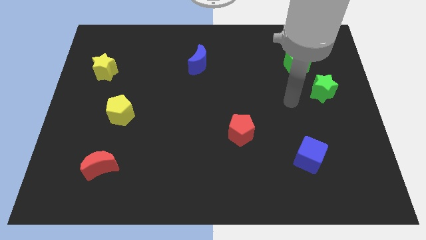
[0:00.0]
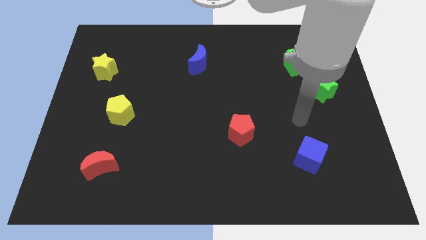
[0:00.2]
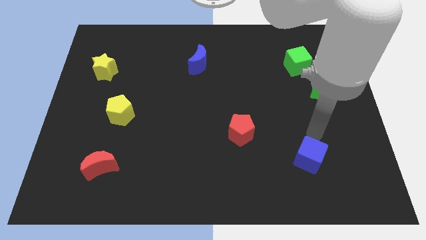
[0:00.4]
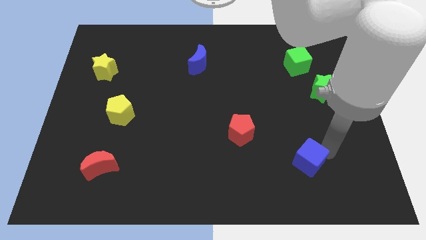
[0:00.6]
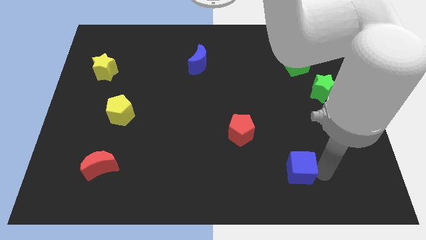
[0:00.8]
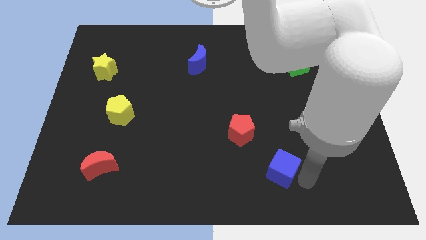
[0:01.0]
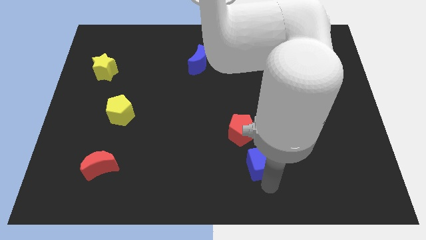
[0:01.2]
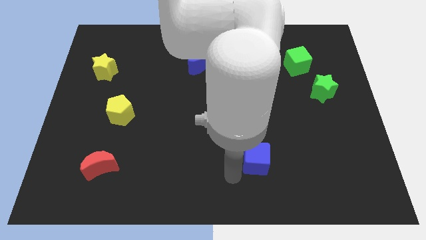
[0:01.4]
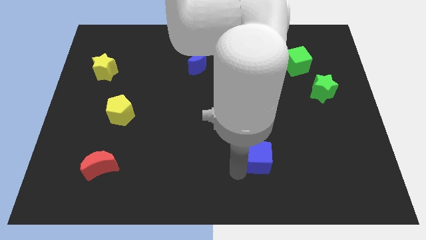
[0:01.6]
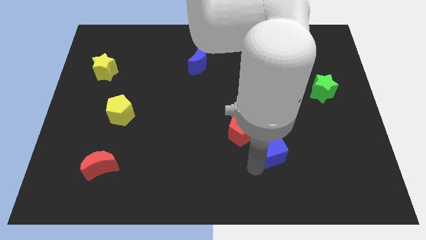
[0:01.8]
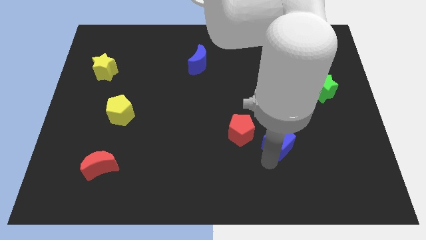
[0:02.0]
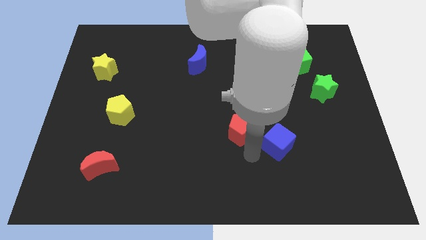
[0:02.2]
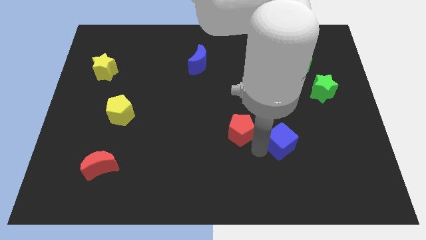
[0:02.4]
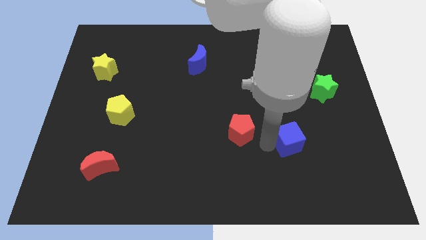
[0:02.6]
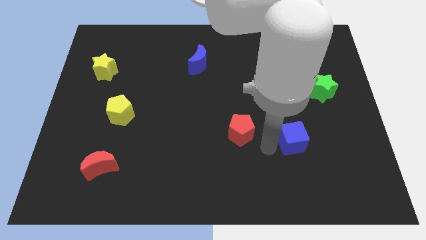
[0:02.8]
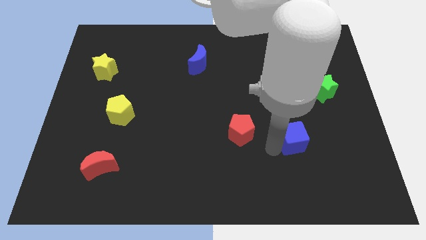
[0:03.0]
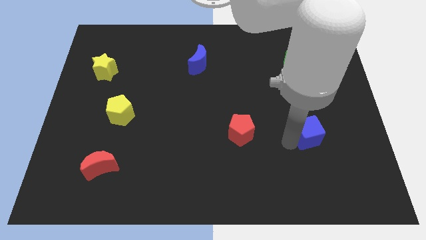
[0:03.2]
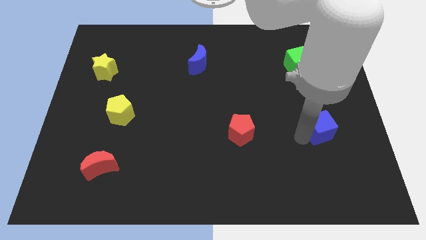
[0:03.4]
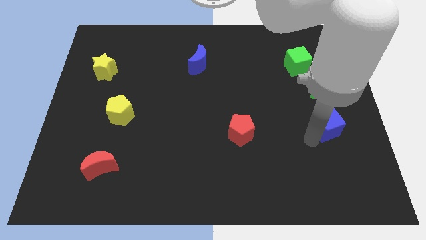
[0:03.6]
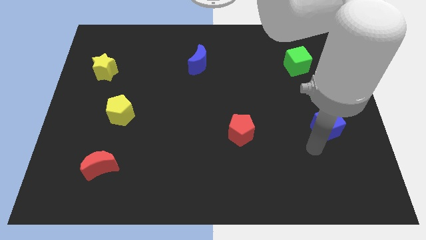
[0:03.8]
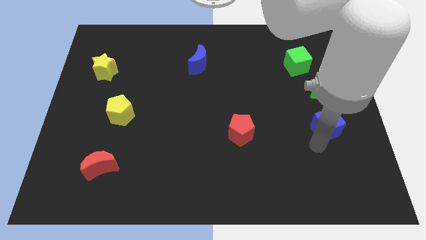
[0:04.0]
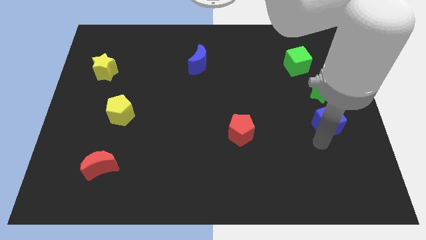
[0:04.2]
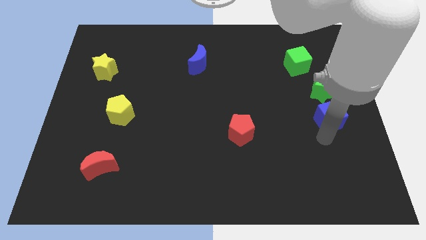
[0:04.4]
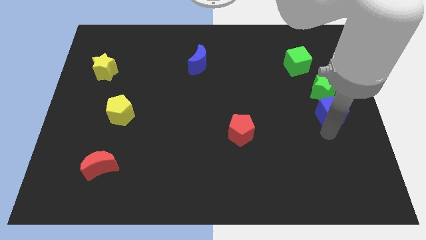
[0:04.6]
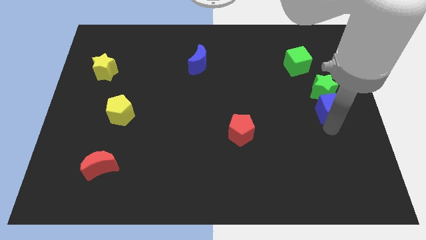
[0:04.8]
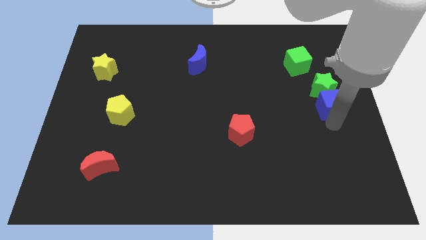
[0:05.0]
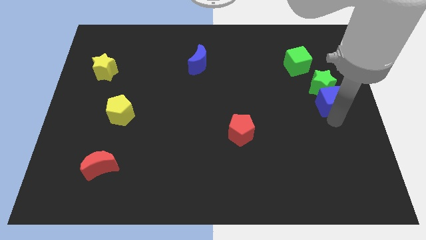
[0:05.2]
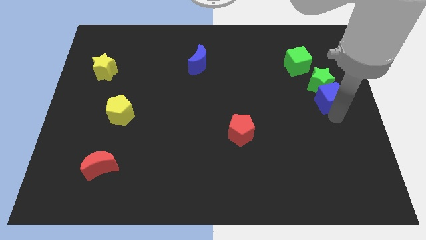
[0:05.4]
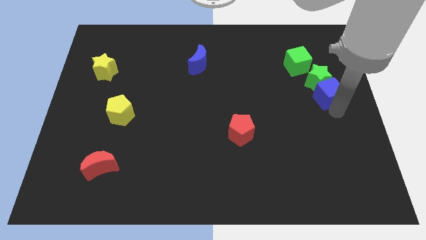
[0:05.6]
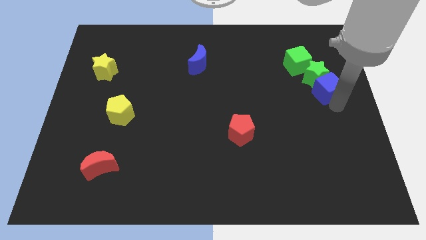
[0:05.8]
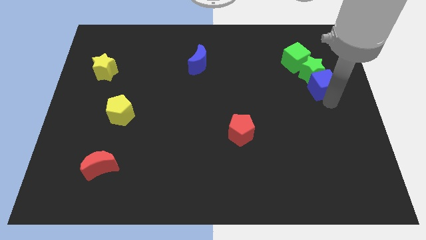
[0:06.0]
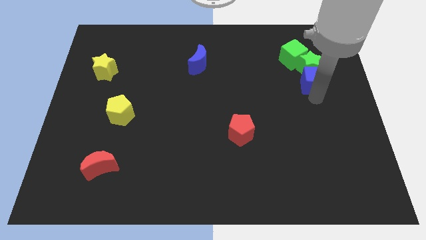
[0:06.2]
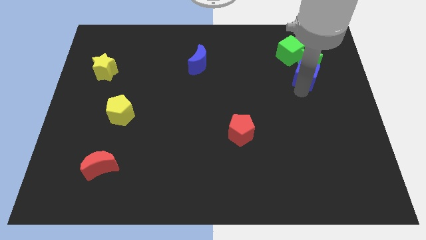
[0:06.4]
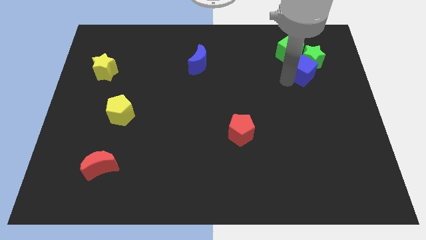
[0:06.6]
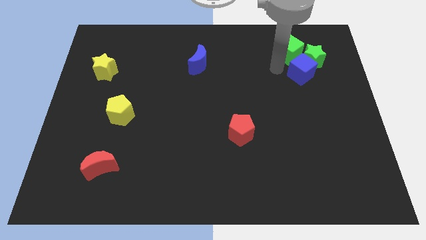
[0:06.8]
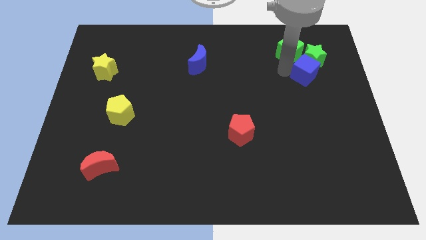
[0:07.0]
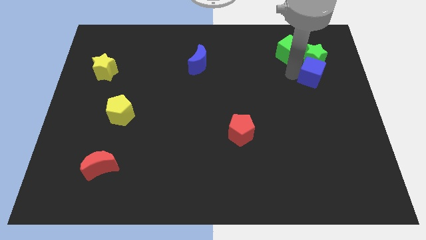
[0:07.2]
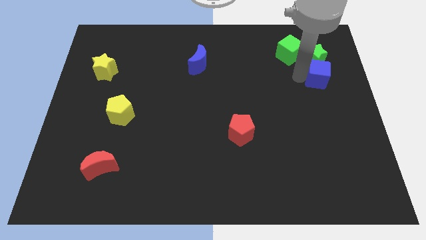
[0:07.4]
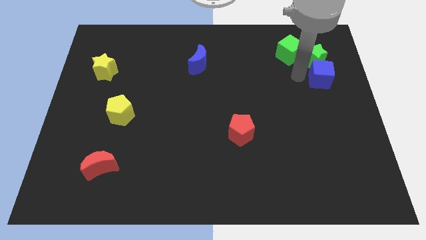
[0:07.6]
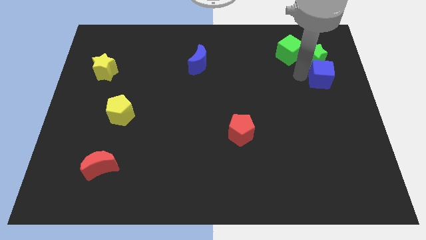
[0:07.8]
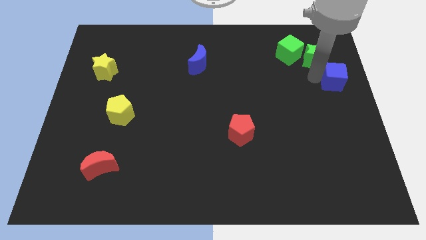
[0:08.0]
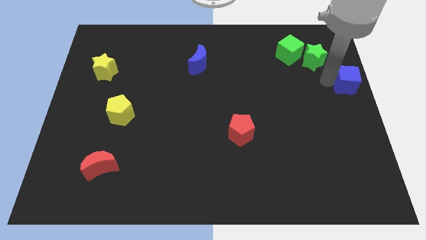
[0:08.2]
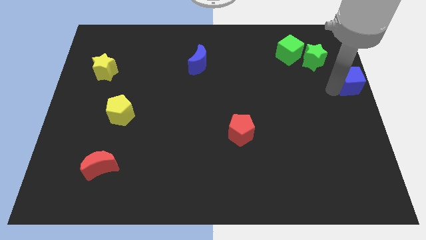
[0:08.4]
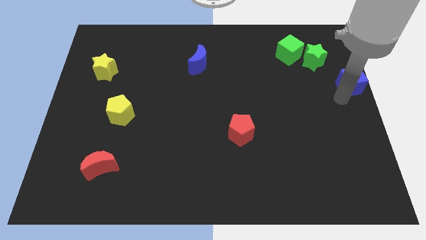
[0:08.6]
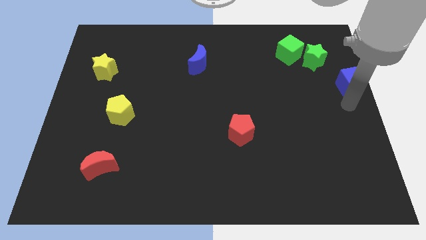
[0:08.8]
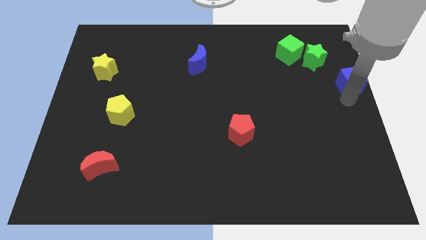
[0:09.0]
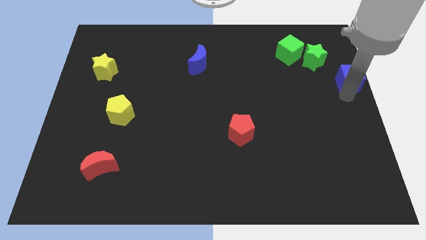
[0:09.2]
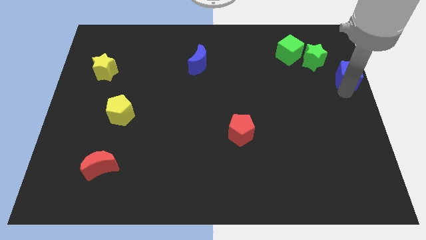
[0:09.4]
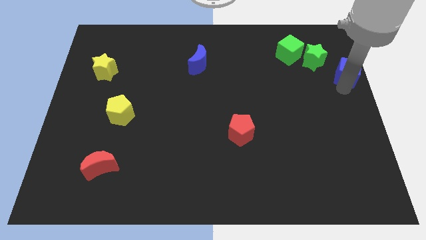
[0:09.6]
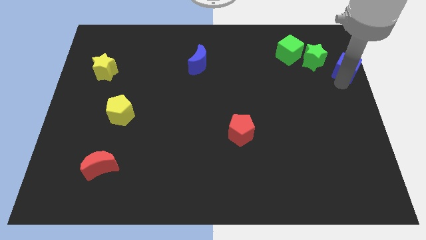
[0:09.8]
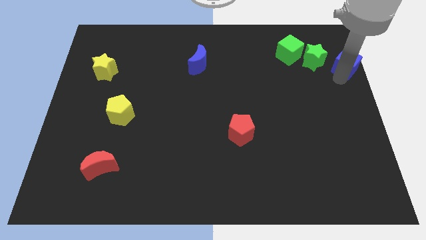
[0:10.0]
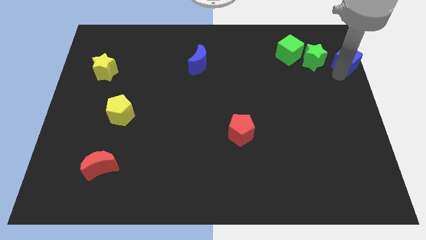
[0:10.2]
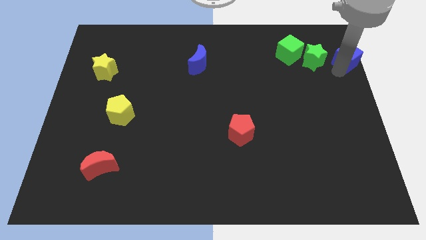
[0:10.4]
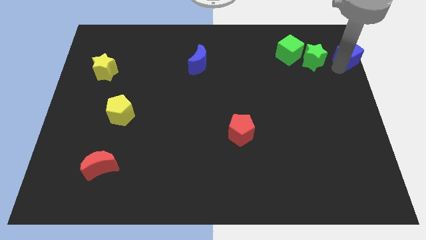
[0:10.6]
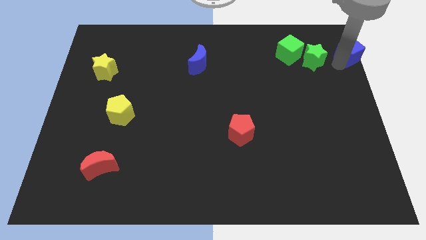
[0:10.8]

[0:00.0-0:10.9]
put the blue cube to the top right corner
